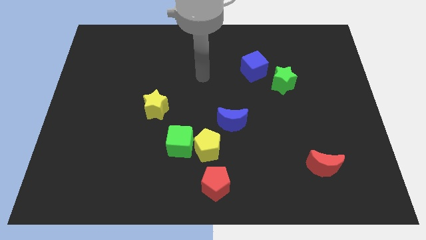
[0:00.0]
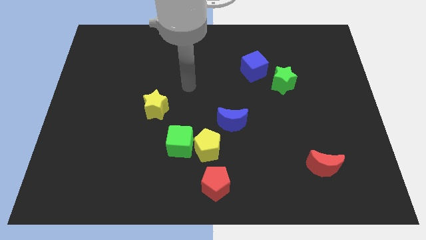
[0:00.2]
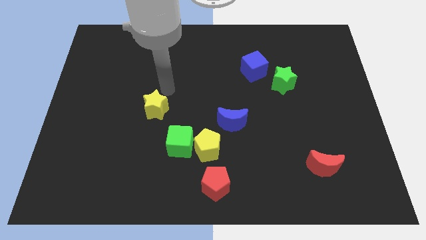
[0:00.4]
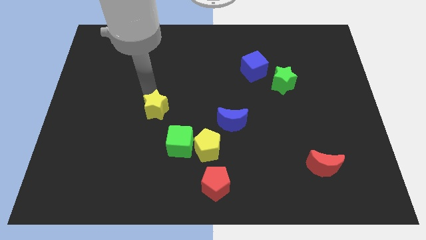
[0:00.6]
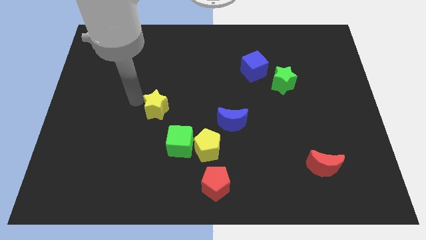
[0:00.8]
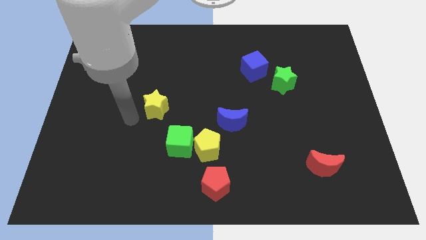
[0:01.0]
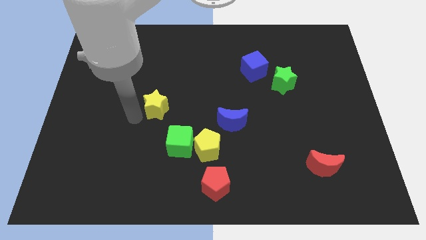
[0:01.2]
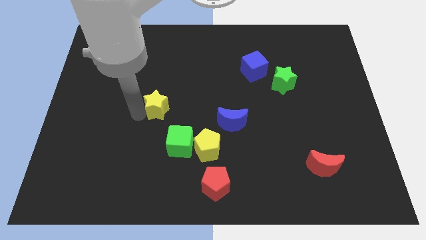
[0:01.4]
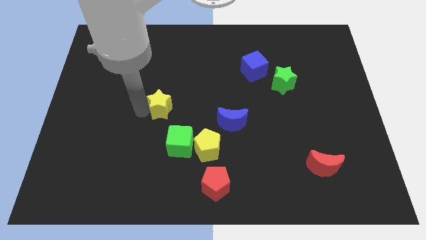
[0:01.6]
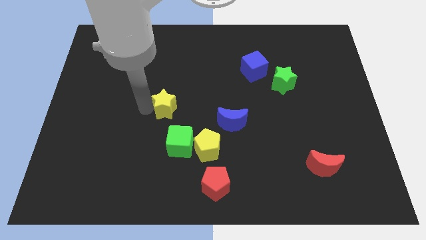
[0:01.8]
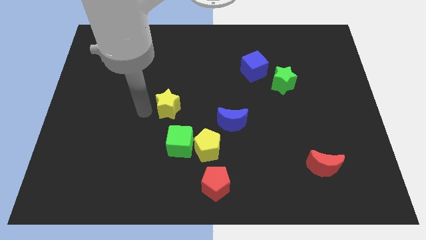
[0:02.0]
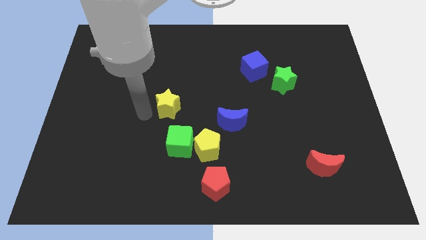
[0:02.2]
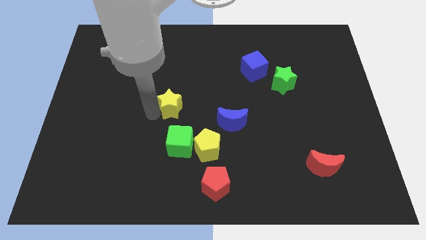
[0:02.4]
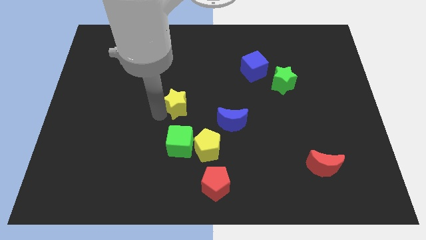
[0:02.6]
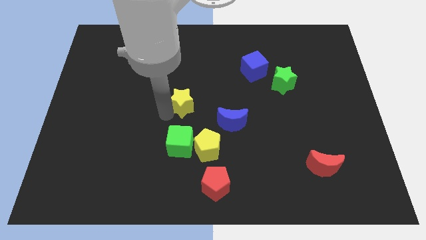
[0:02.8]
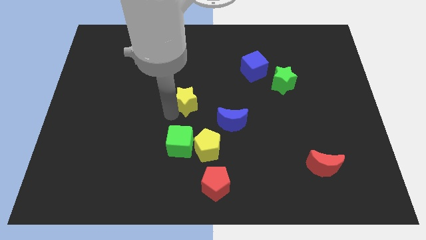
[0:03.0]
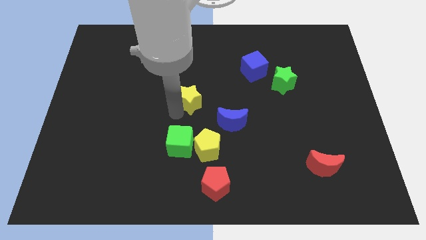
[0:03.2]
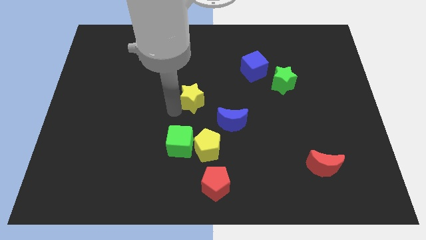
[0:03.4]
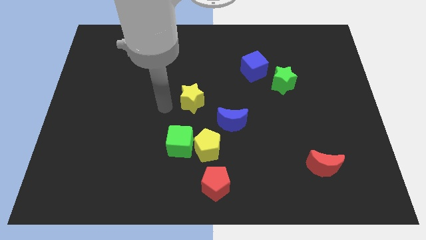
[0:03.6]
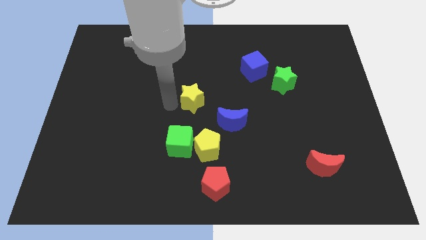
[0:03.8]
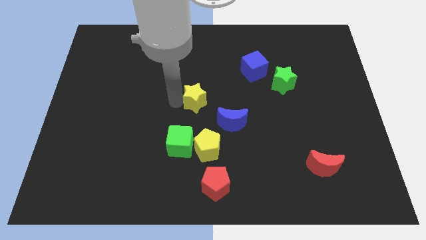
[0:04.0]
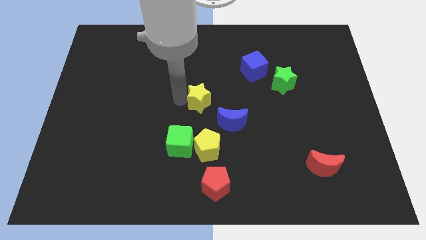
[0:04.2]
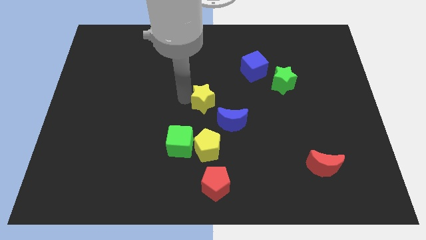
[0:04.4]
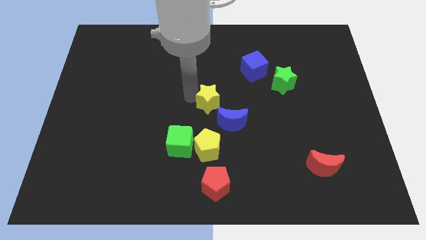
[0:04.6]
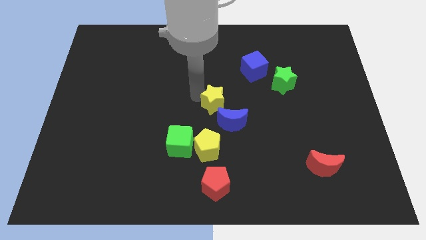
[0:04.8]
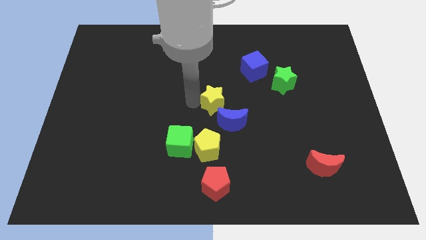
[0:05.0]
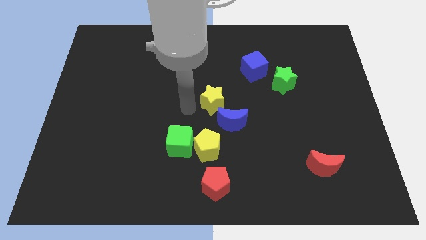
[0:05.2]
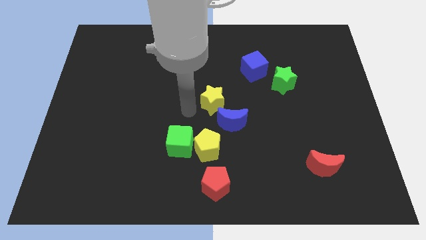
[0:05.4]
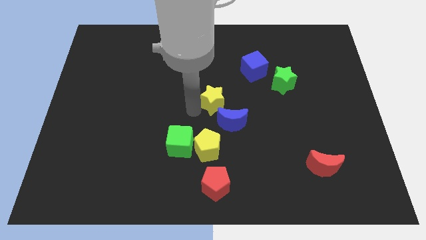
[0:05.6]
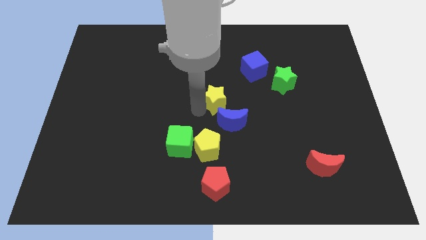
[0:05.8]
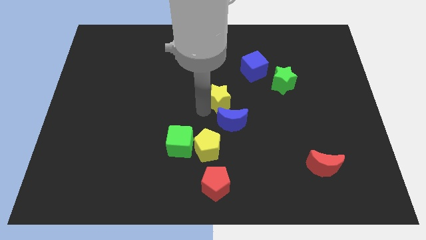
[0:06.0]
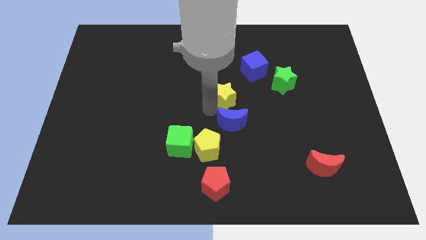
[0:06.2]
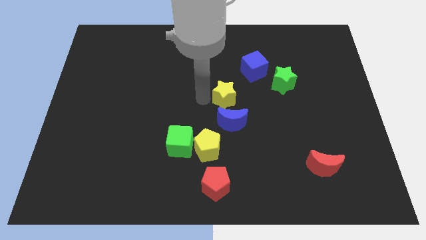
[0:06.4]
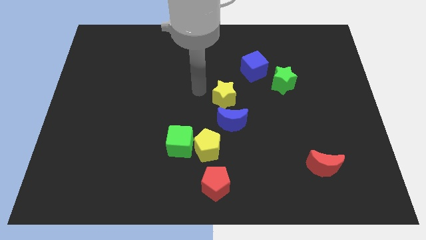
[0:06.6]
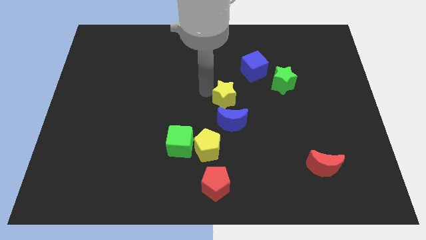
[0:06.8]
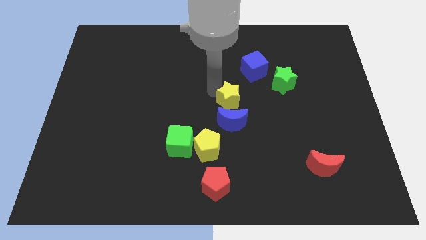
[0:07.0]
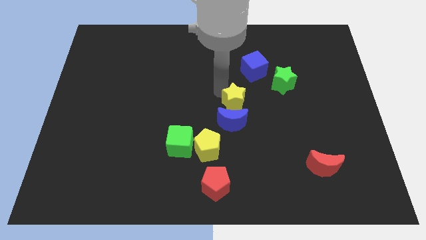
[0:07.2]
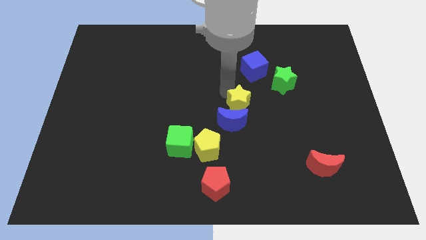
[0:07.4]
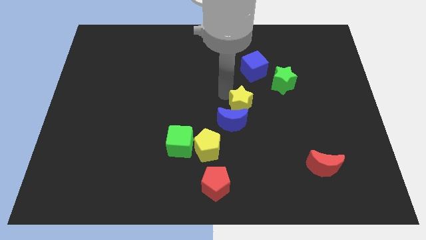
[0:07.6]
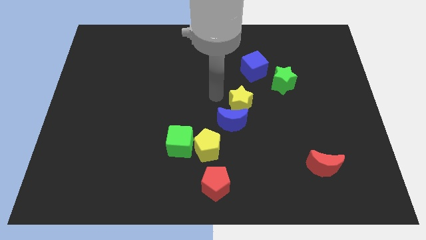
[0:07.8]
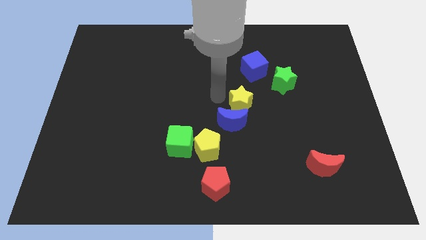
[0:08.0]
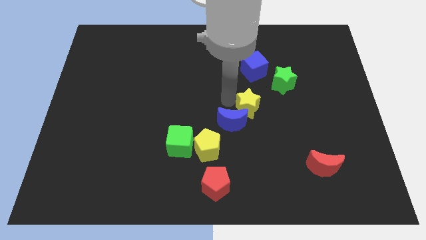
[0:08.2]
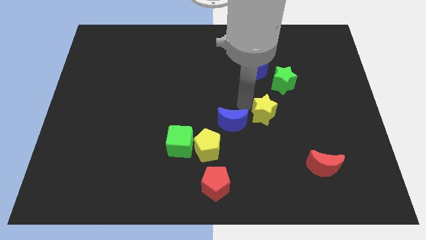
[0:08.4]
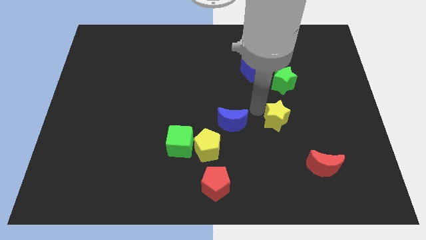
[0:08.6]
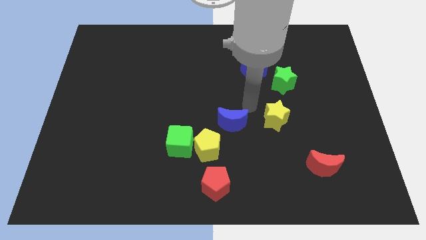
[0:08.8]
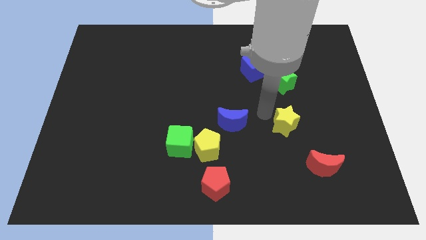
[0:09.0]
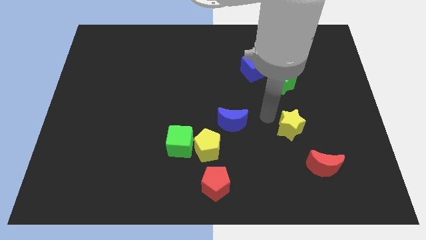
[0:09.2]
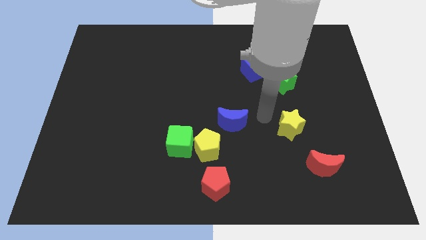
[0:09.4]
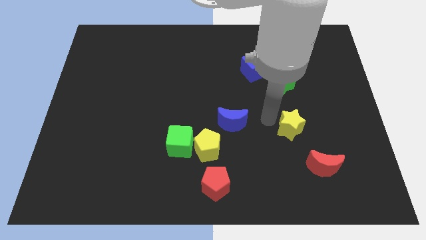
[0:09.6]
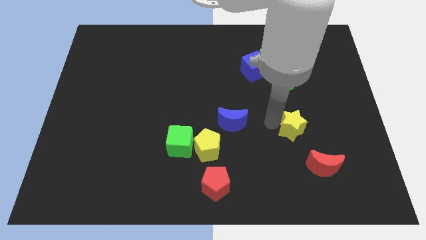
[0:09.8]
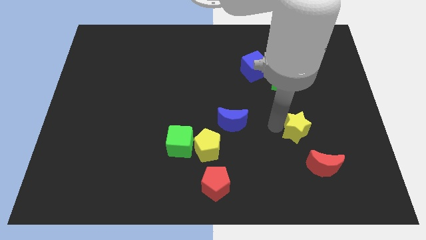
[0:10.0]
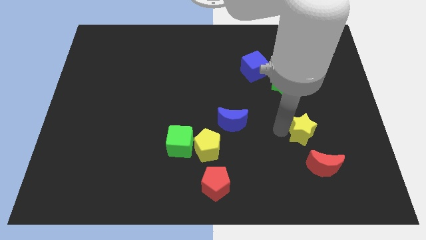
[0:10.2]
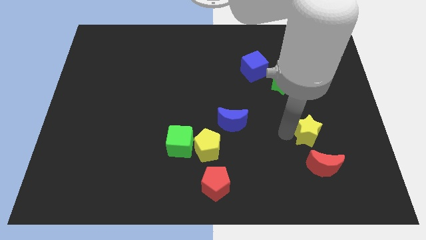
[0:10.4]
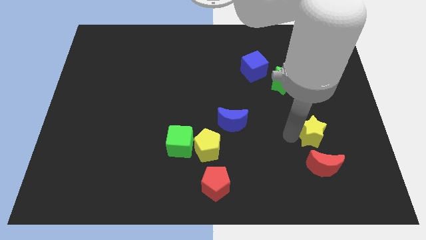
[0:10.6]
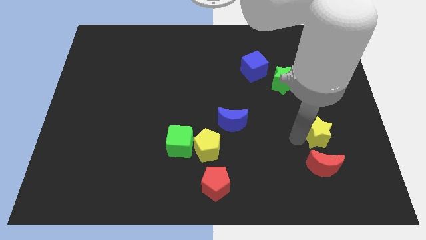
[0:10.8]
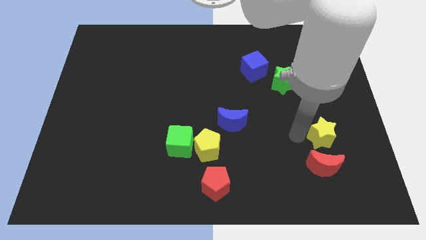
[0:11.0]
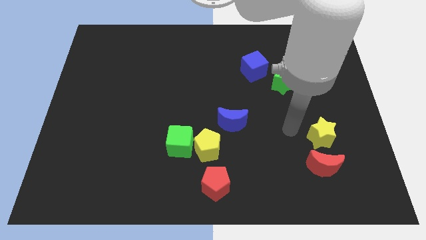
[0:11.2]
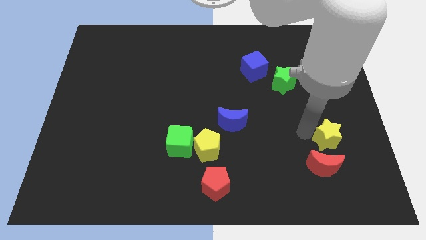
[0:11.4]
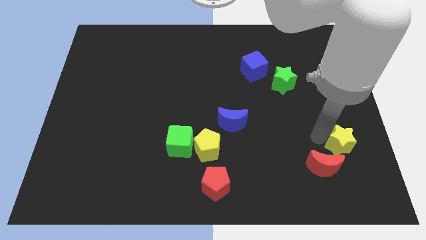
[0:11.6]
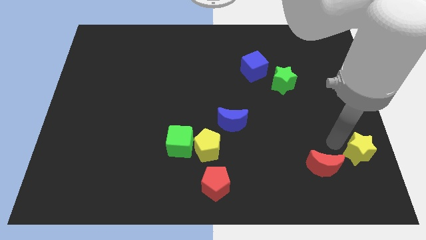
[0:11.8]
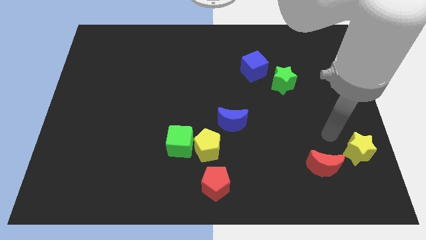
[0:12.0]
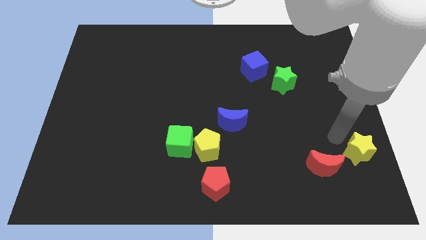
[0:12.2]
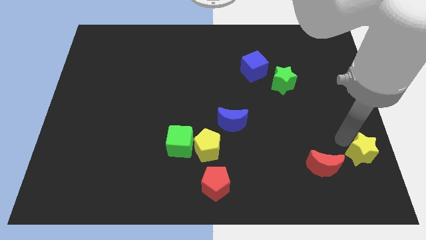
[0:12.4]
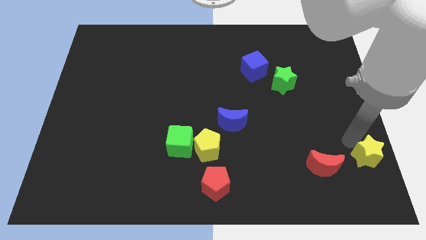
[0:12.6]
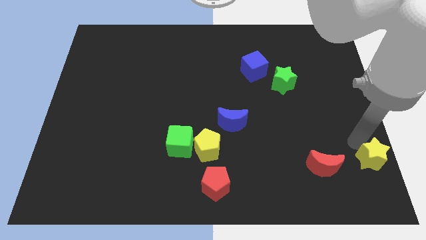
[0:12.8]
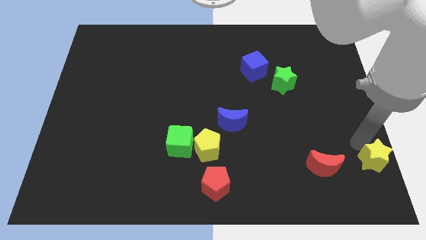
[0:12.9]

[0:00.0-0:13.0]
put the yellow star to the bottom right corner

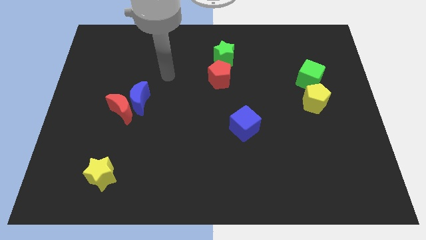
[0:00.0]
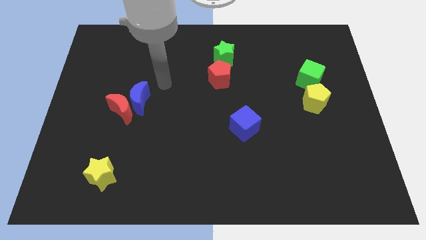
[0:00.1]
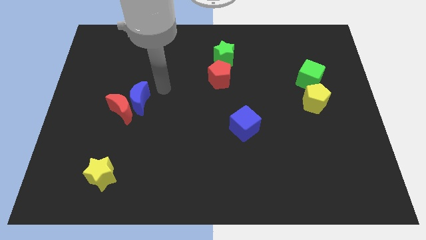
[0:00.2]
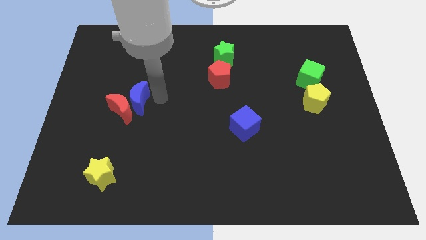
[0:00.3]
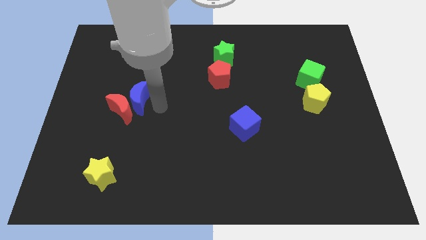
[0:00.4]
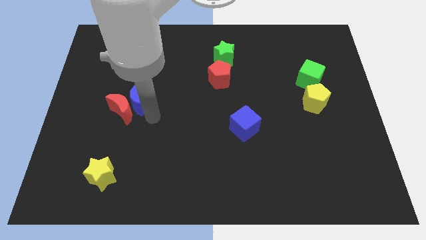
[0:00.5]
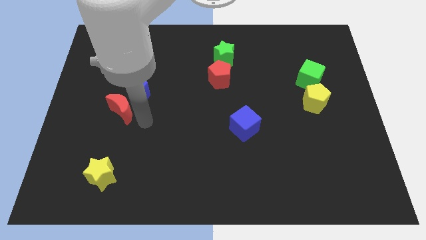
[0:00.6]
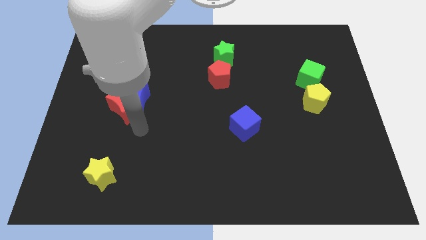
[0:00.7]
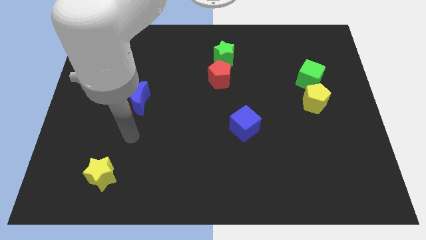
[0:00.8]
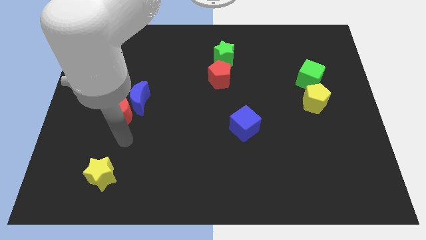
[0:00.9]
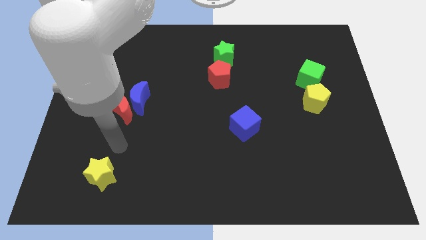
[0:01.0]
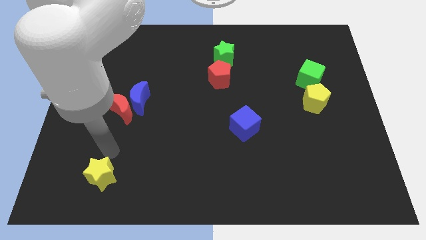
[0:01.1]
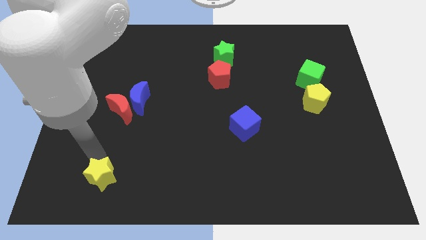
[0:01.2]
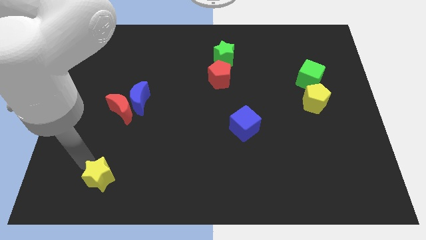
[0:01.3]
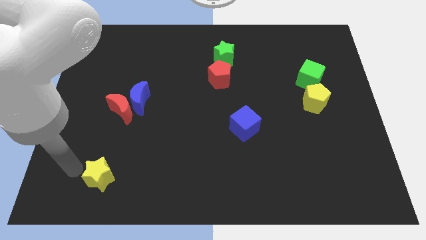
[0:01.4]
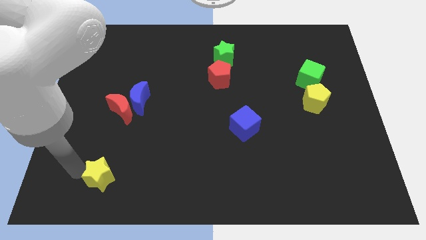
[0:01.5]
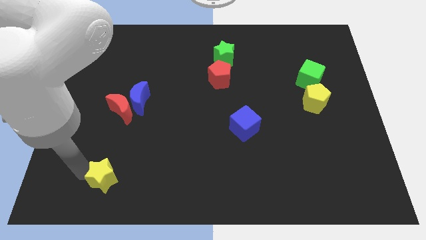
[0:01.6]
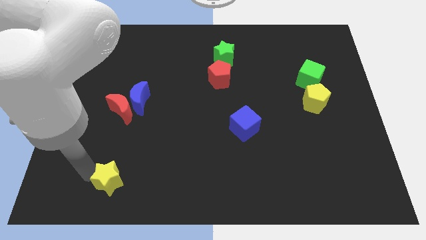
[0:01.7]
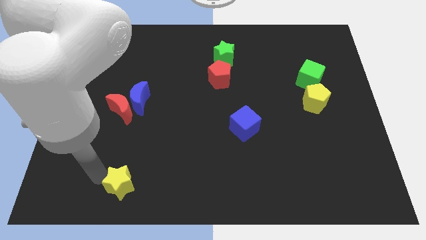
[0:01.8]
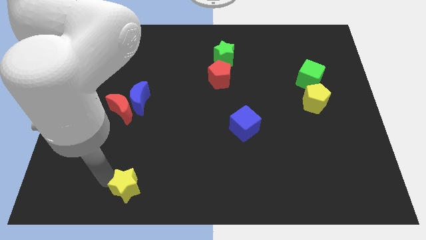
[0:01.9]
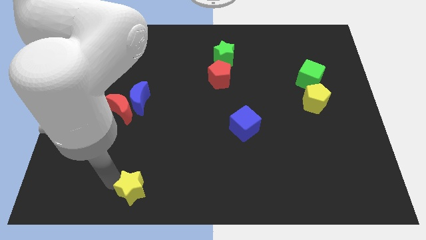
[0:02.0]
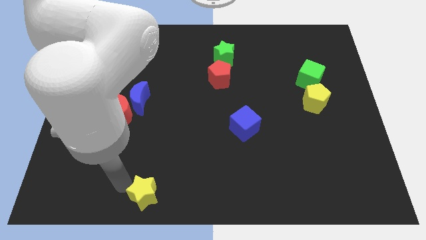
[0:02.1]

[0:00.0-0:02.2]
put the yellow star to the bottom
